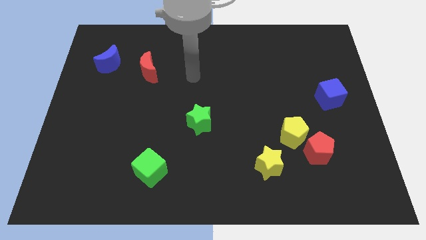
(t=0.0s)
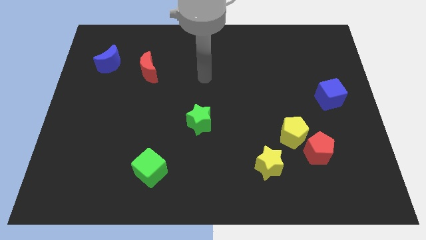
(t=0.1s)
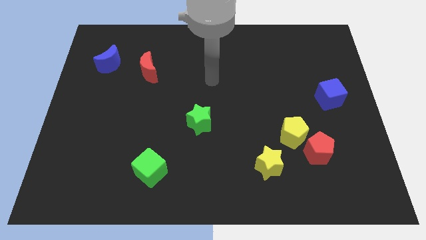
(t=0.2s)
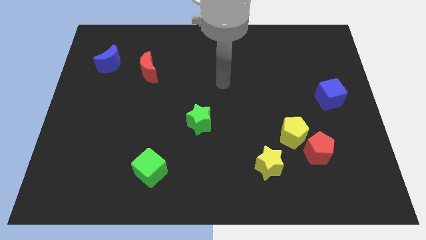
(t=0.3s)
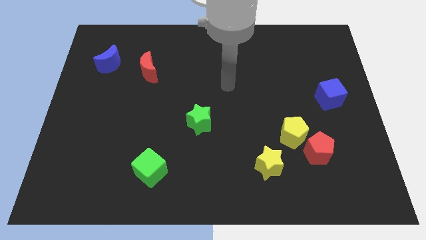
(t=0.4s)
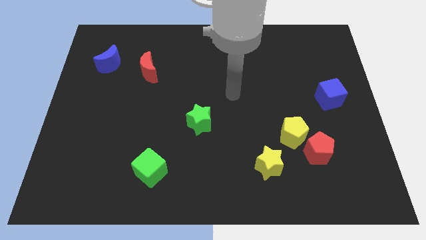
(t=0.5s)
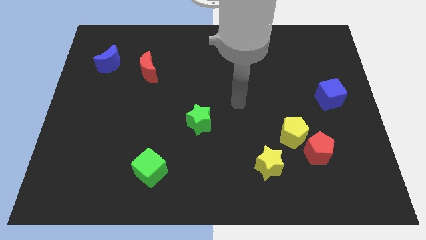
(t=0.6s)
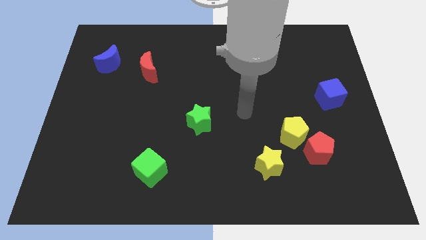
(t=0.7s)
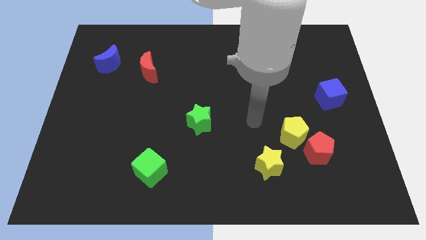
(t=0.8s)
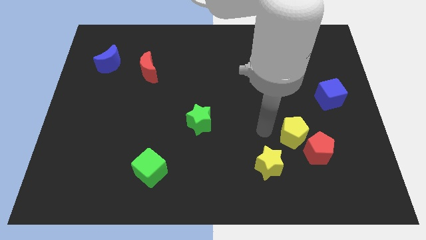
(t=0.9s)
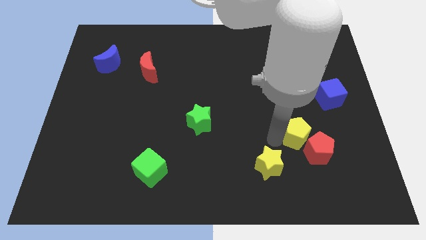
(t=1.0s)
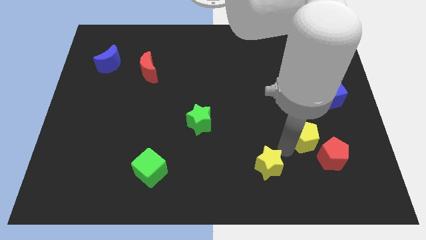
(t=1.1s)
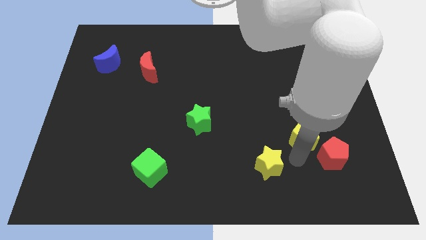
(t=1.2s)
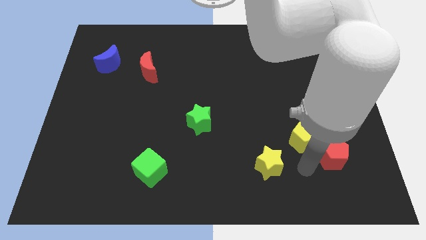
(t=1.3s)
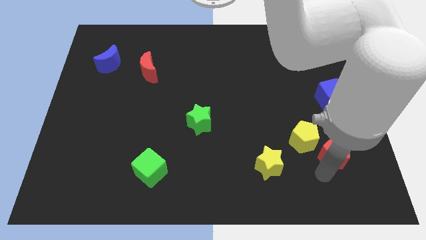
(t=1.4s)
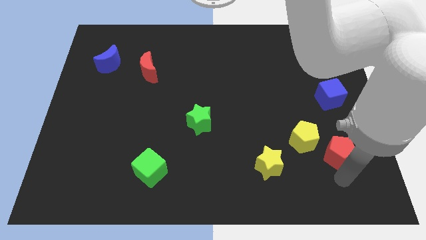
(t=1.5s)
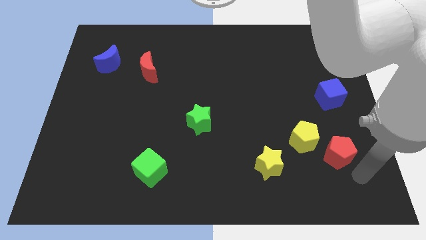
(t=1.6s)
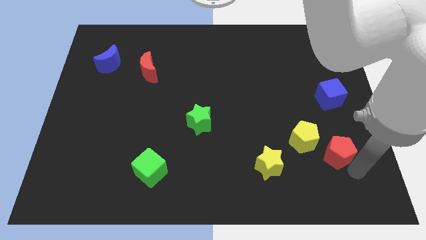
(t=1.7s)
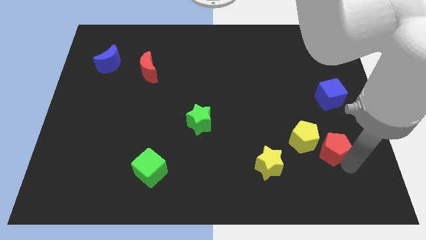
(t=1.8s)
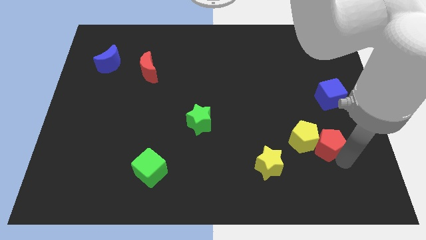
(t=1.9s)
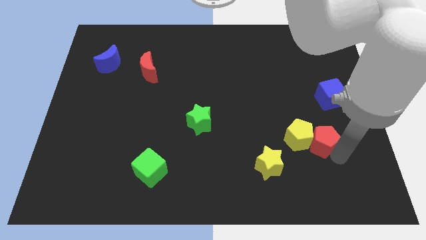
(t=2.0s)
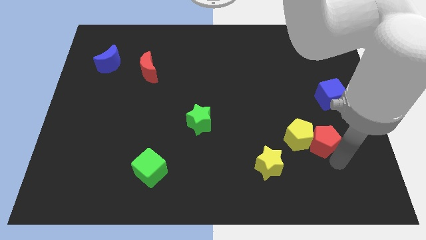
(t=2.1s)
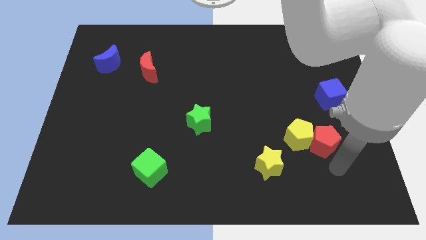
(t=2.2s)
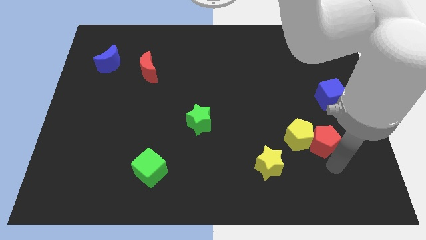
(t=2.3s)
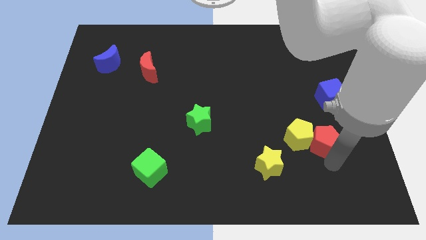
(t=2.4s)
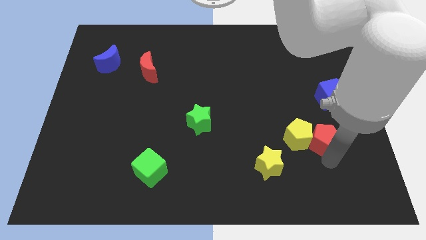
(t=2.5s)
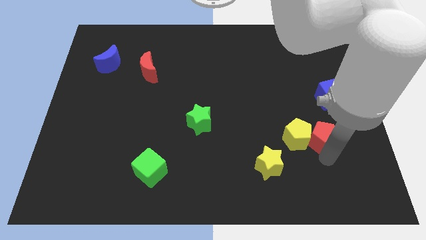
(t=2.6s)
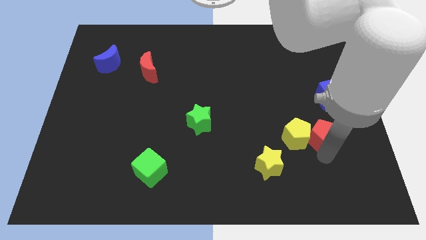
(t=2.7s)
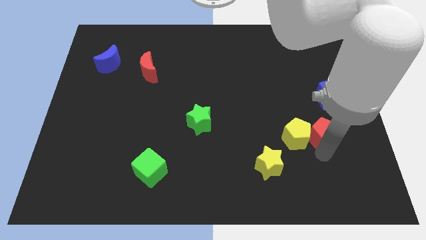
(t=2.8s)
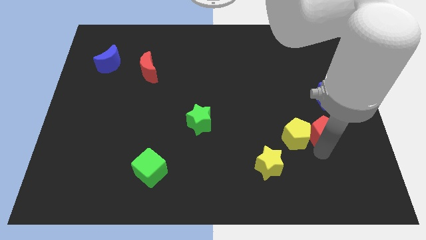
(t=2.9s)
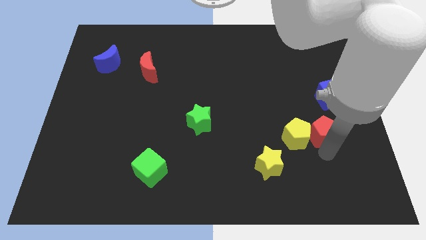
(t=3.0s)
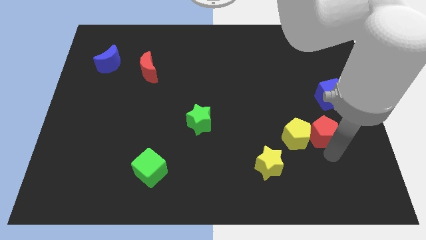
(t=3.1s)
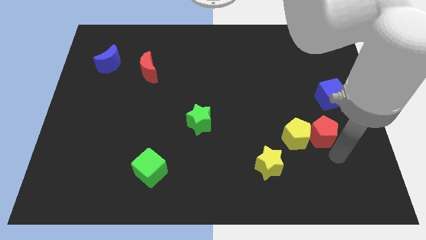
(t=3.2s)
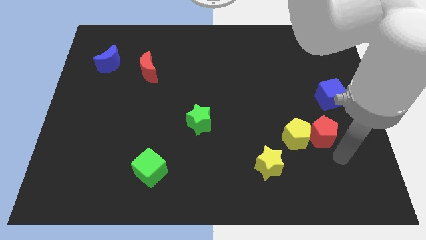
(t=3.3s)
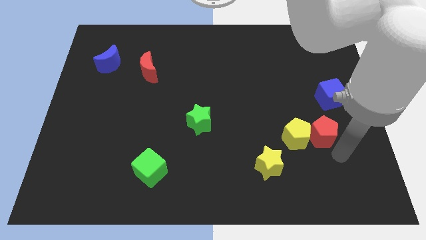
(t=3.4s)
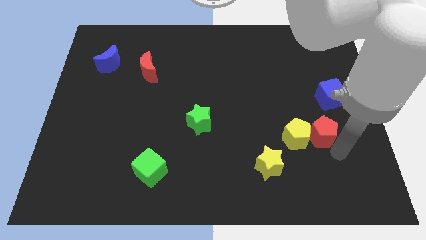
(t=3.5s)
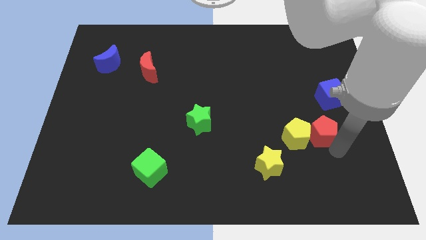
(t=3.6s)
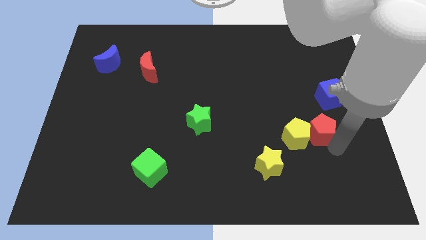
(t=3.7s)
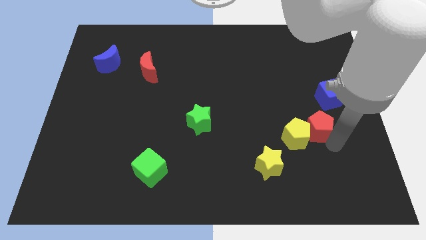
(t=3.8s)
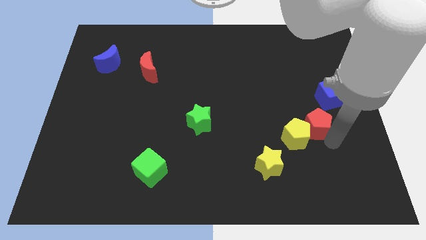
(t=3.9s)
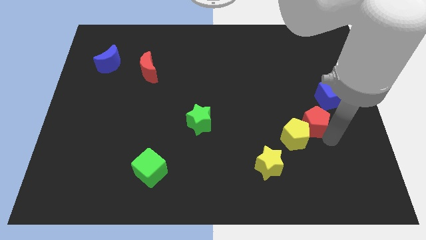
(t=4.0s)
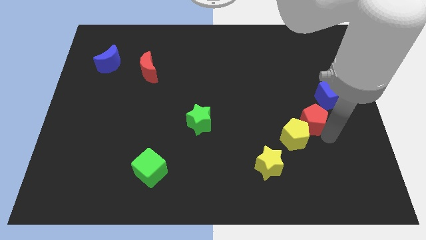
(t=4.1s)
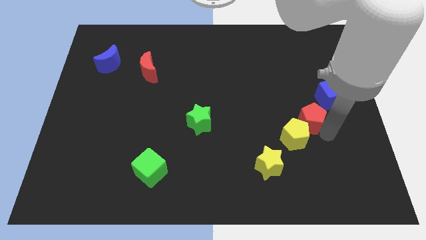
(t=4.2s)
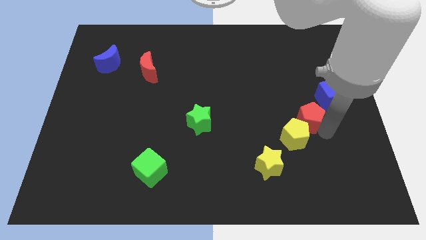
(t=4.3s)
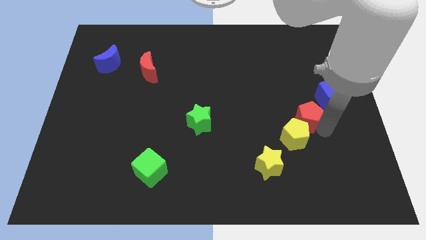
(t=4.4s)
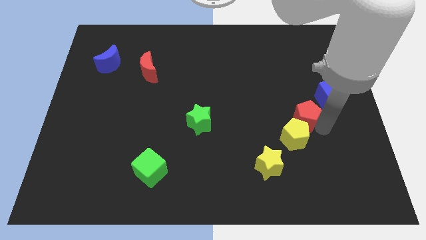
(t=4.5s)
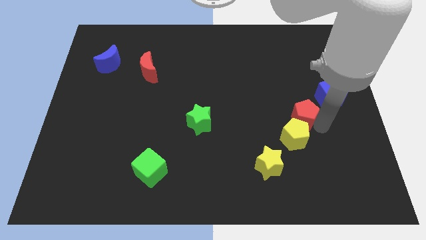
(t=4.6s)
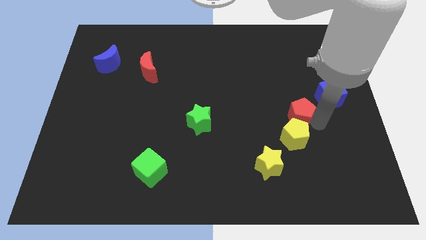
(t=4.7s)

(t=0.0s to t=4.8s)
push the red pentagon slightly diagonally up and left

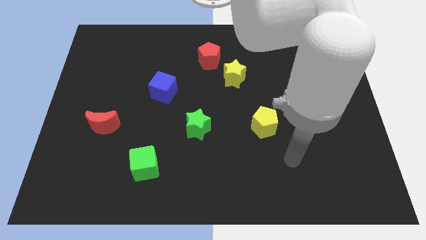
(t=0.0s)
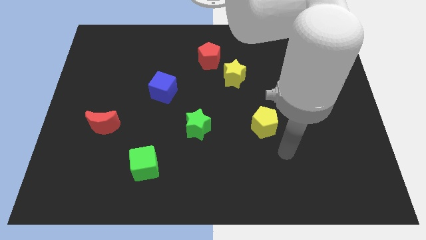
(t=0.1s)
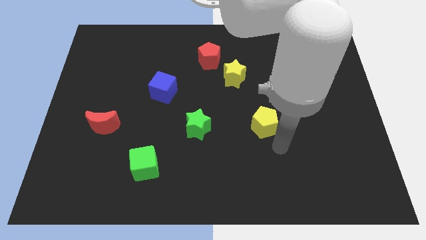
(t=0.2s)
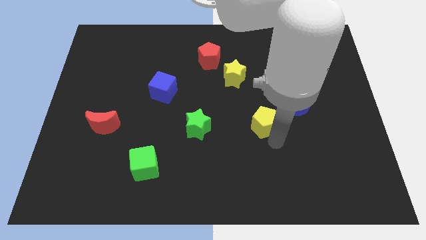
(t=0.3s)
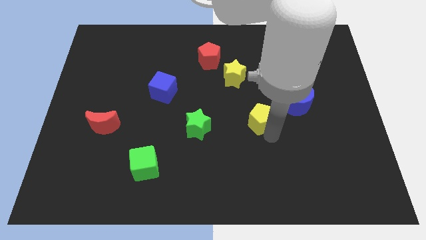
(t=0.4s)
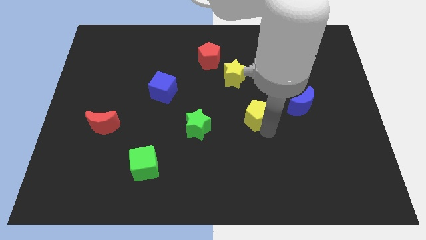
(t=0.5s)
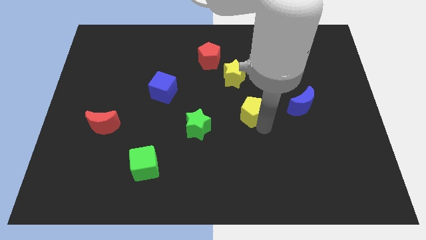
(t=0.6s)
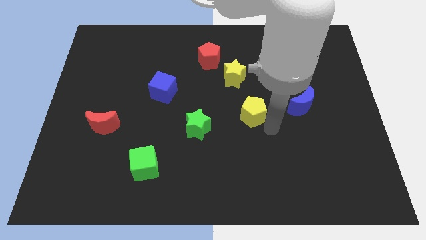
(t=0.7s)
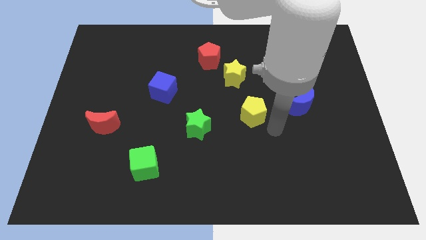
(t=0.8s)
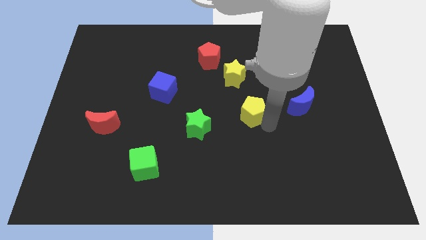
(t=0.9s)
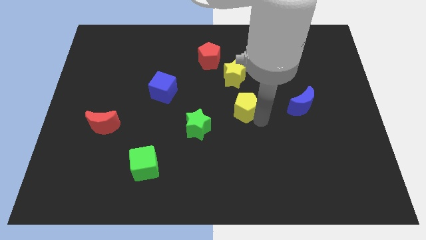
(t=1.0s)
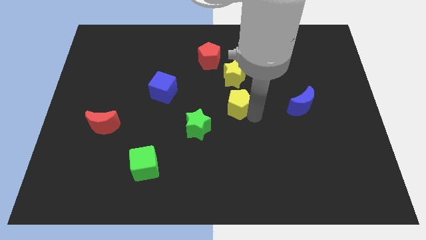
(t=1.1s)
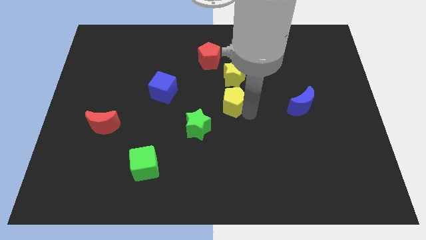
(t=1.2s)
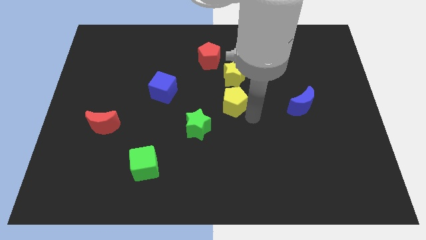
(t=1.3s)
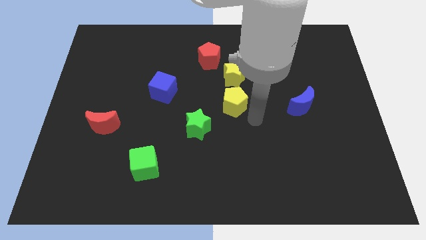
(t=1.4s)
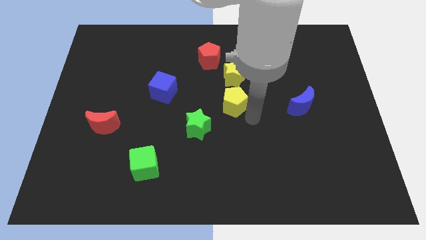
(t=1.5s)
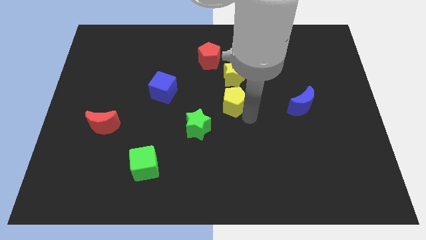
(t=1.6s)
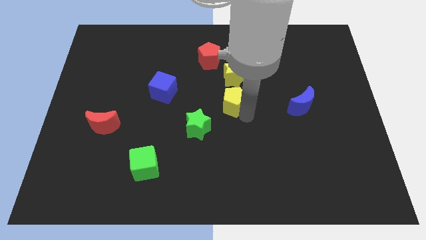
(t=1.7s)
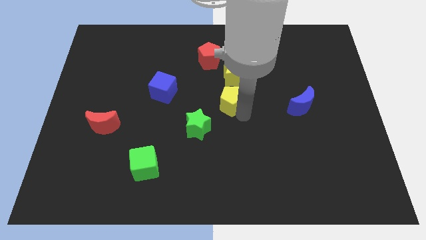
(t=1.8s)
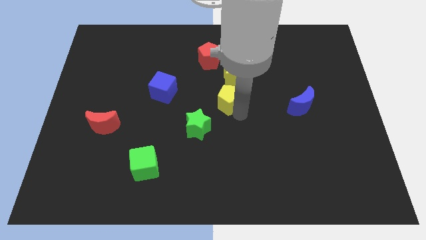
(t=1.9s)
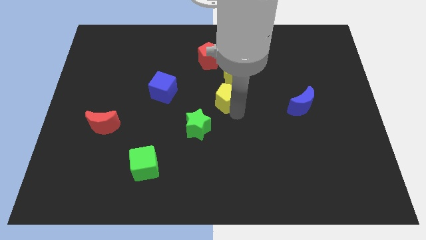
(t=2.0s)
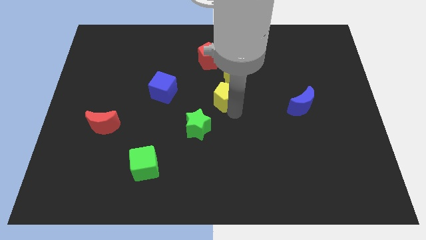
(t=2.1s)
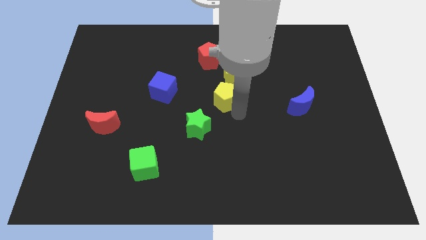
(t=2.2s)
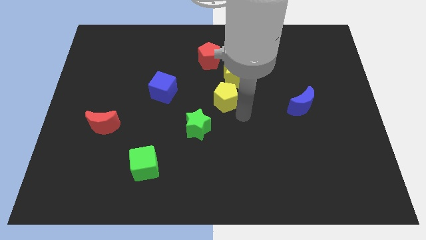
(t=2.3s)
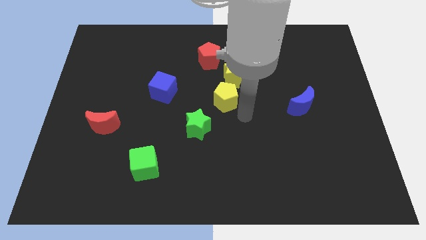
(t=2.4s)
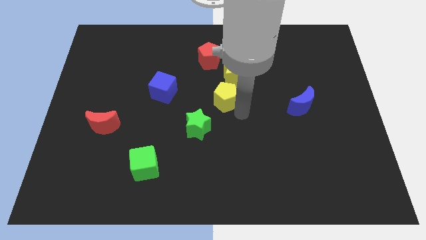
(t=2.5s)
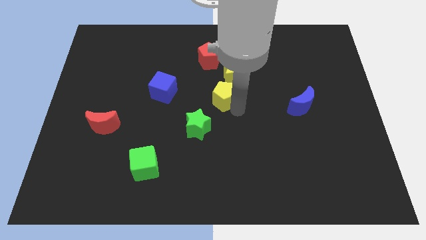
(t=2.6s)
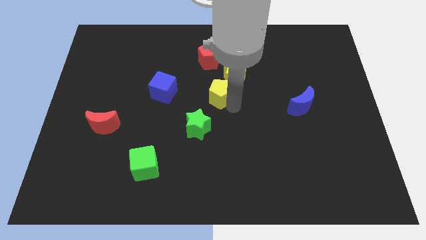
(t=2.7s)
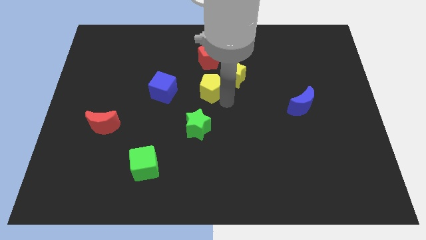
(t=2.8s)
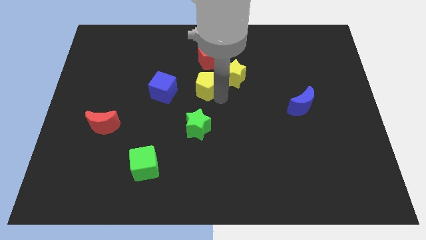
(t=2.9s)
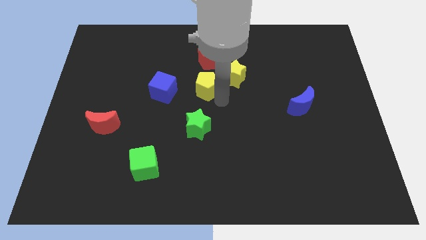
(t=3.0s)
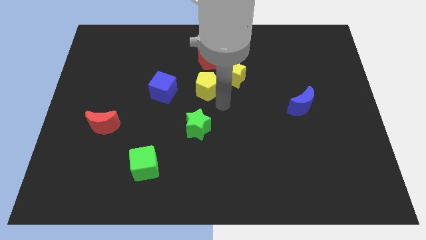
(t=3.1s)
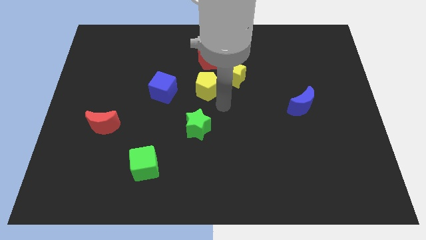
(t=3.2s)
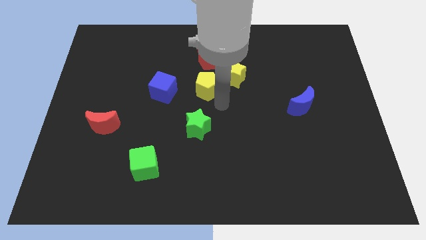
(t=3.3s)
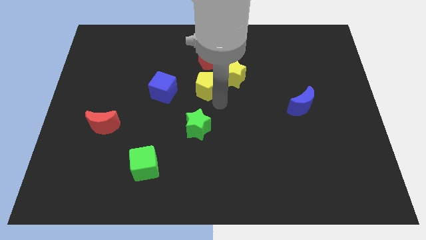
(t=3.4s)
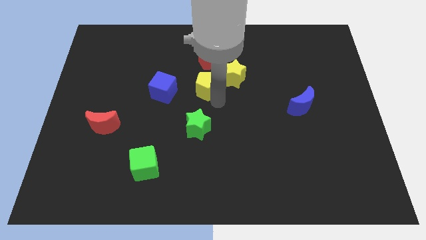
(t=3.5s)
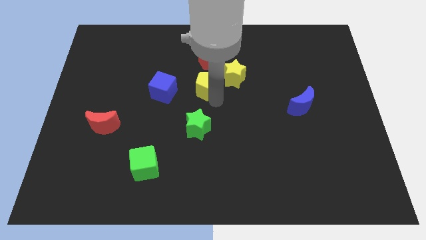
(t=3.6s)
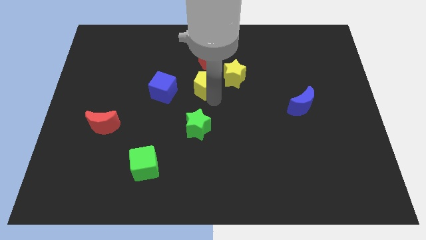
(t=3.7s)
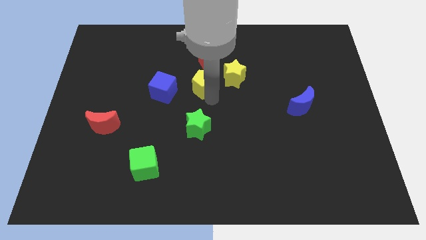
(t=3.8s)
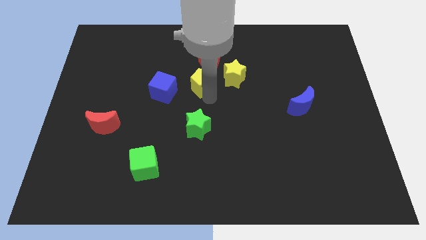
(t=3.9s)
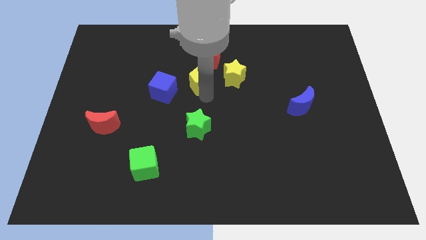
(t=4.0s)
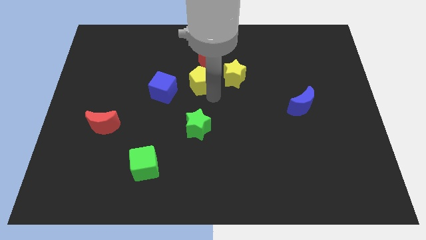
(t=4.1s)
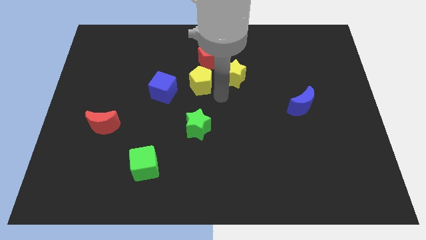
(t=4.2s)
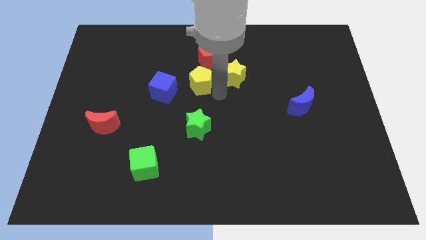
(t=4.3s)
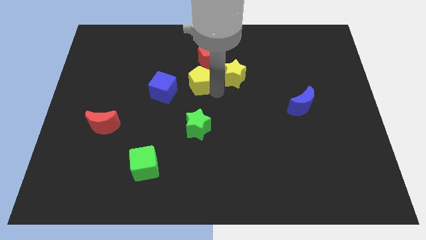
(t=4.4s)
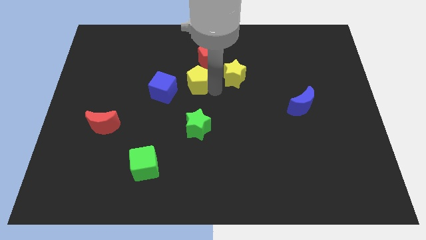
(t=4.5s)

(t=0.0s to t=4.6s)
slide the yellow pentagon diagonally upwards and left
